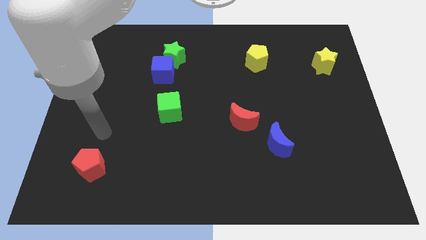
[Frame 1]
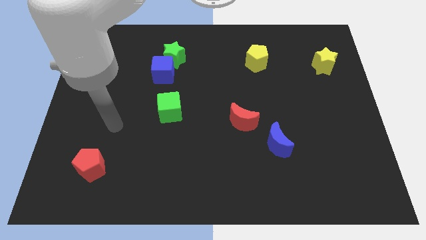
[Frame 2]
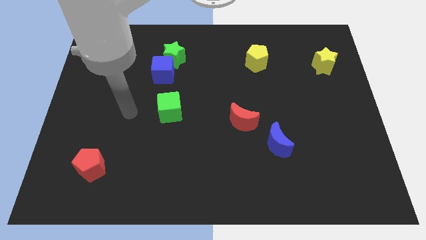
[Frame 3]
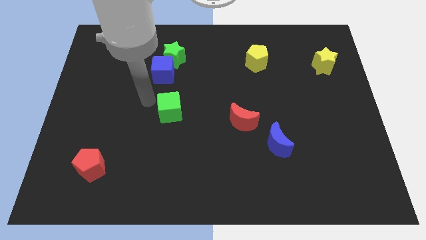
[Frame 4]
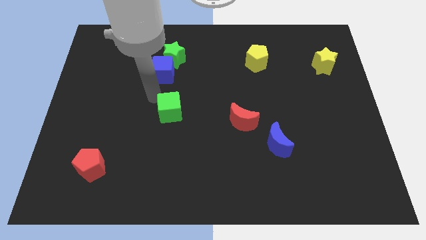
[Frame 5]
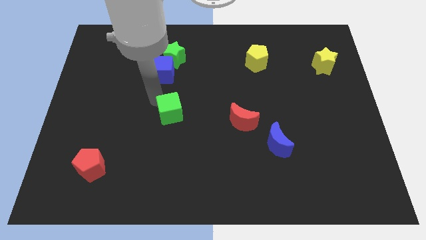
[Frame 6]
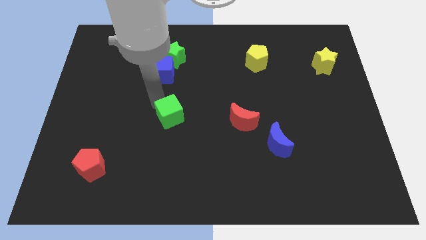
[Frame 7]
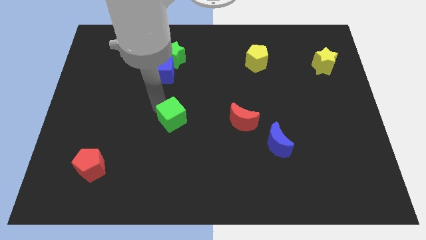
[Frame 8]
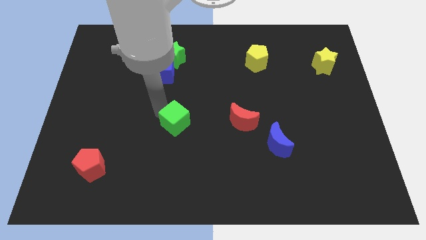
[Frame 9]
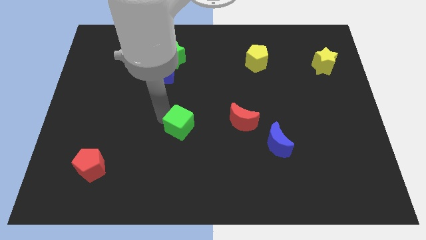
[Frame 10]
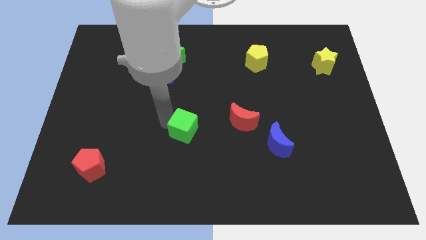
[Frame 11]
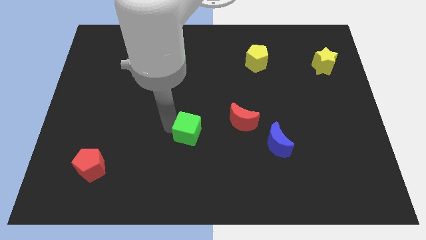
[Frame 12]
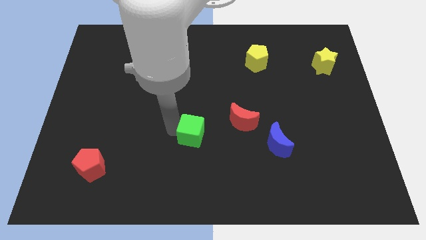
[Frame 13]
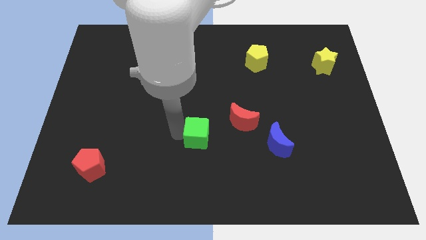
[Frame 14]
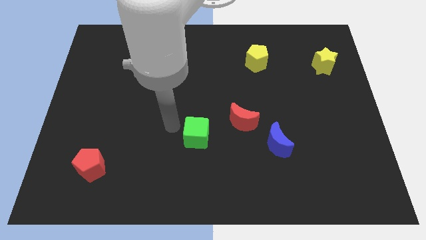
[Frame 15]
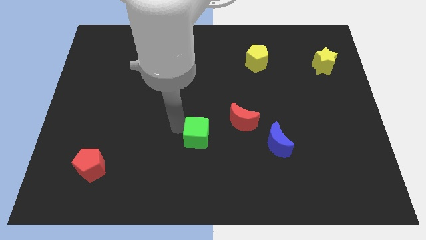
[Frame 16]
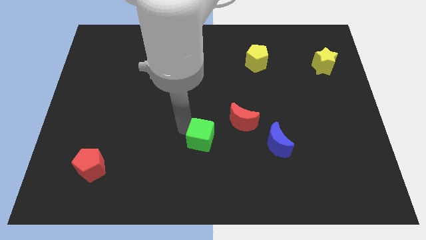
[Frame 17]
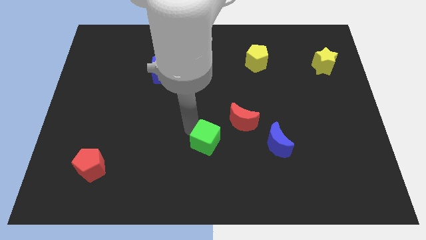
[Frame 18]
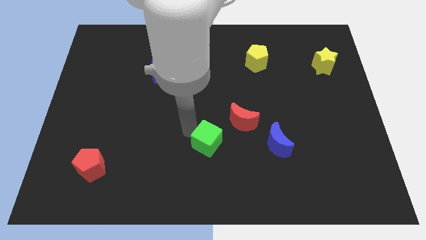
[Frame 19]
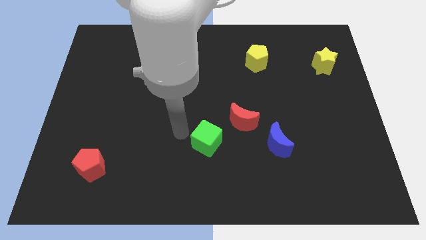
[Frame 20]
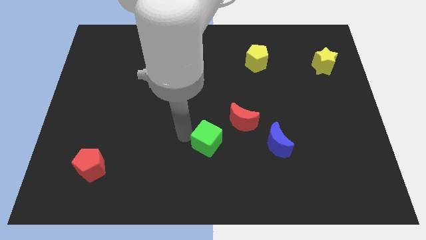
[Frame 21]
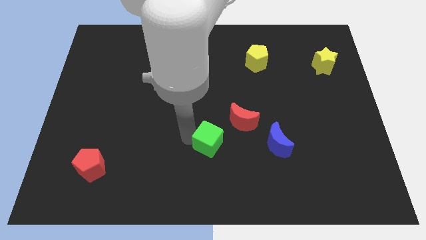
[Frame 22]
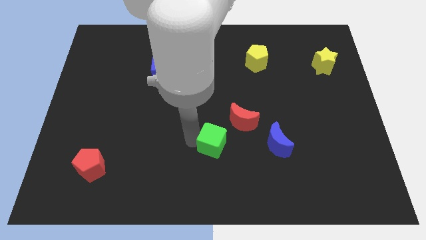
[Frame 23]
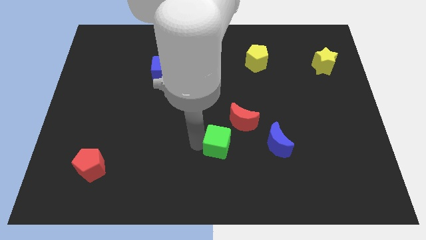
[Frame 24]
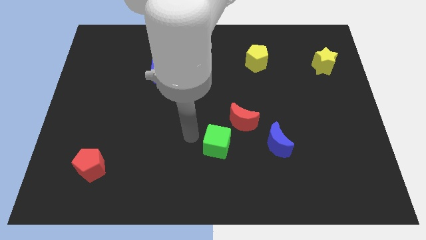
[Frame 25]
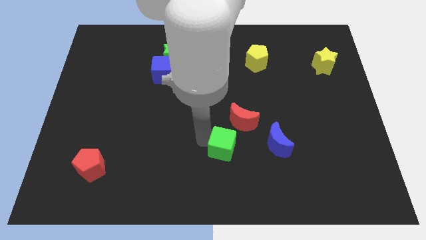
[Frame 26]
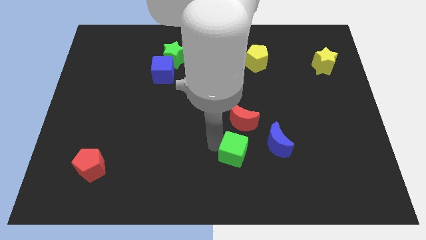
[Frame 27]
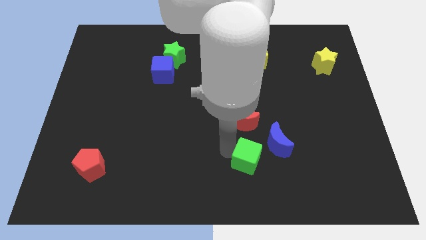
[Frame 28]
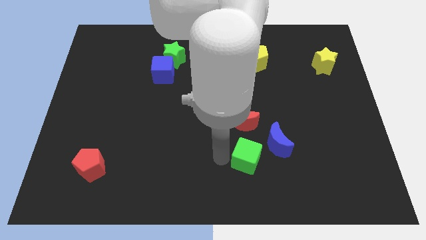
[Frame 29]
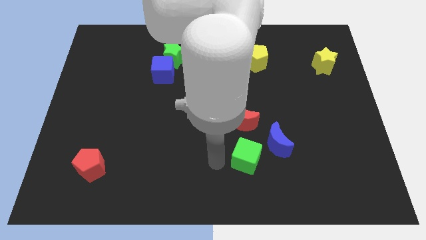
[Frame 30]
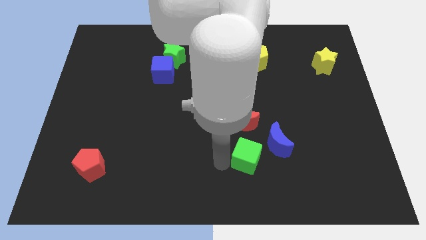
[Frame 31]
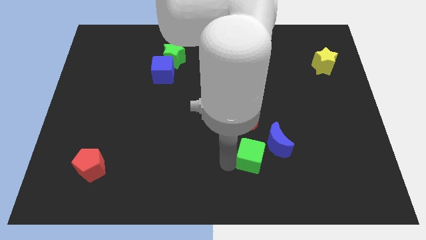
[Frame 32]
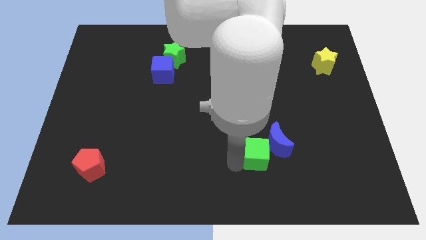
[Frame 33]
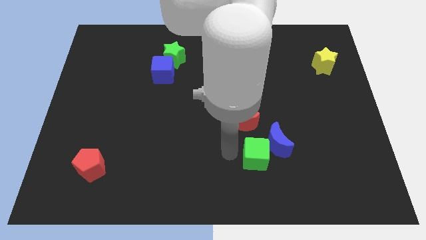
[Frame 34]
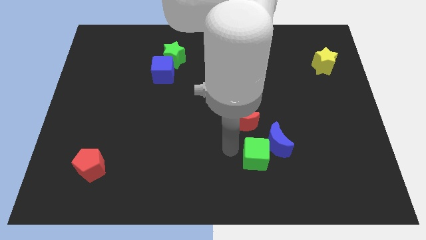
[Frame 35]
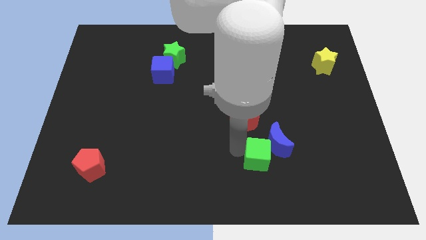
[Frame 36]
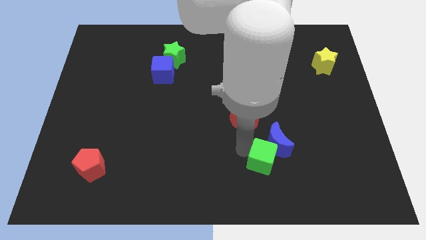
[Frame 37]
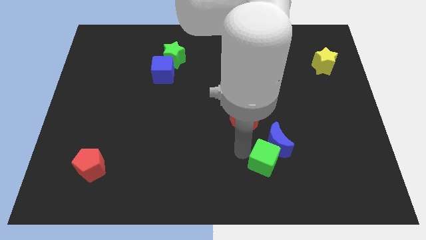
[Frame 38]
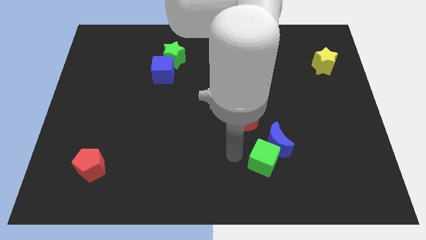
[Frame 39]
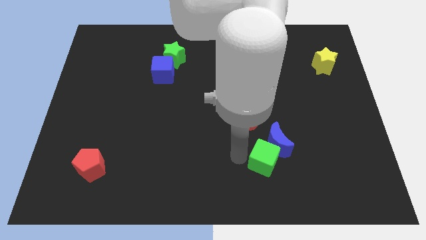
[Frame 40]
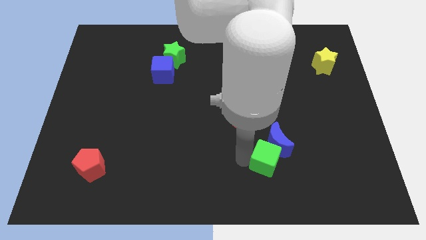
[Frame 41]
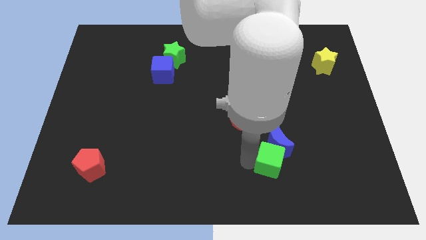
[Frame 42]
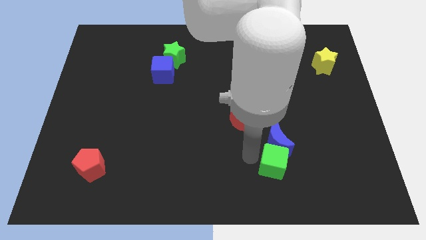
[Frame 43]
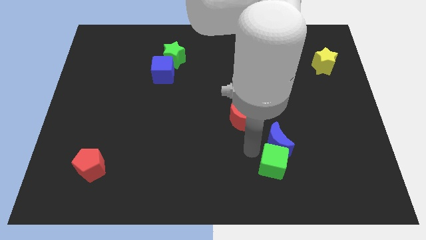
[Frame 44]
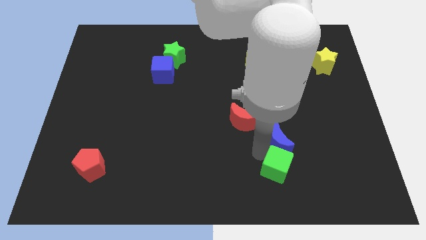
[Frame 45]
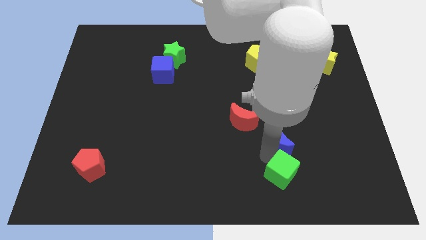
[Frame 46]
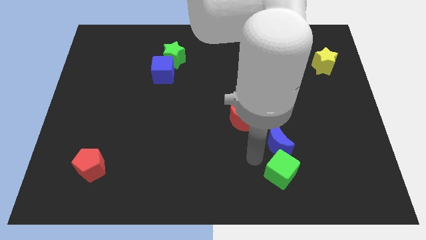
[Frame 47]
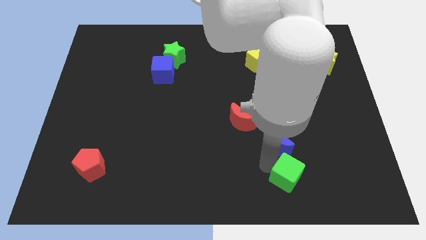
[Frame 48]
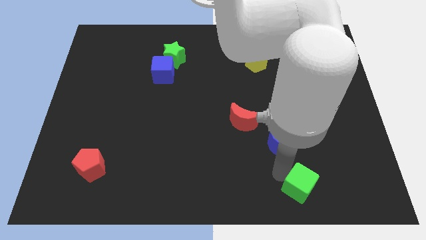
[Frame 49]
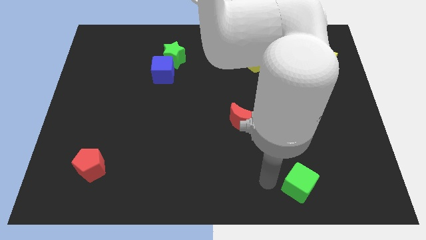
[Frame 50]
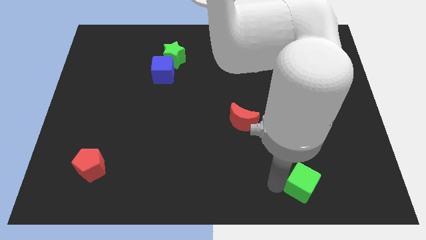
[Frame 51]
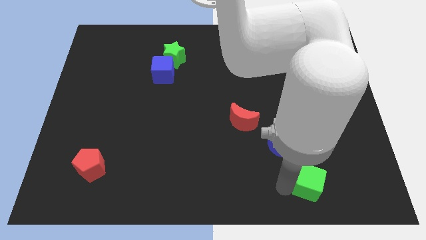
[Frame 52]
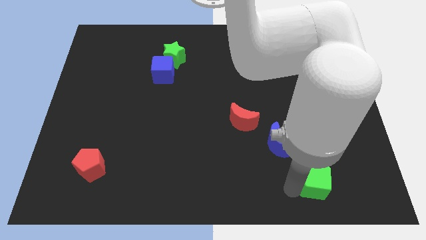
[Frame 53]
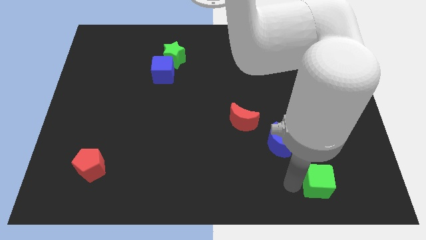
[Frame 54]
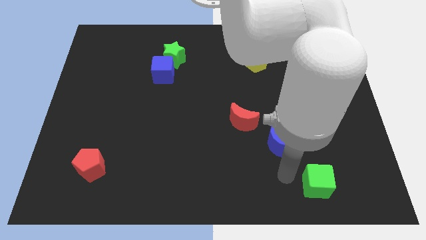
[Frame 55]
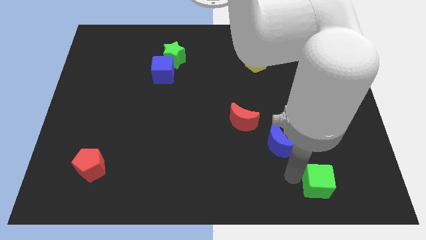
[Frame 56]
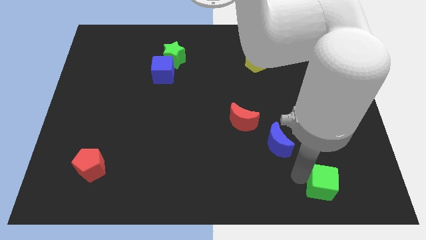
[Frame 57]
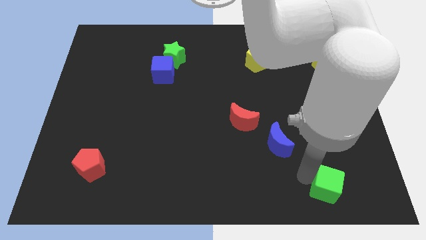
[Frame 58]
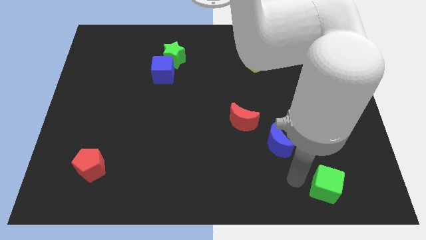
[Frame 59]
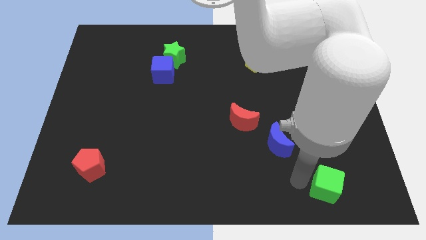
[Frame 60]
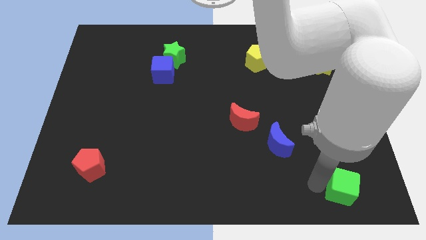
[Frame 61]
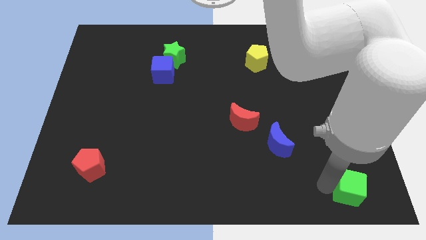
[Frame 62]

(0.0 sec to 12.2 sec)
move the green cube to the lower right corner

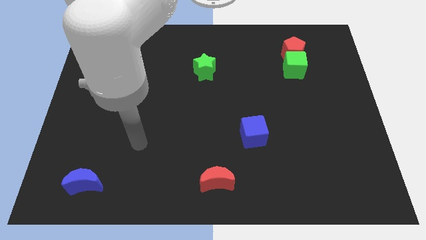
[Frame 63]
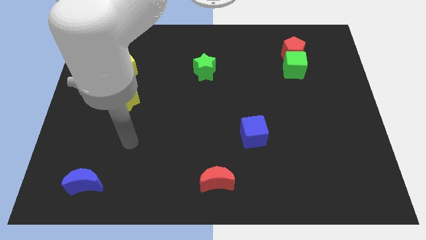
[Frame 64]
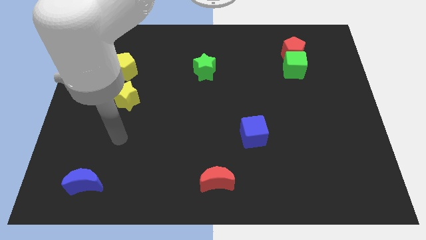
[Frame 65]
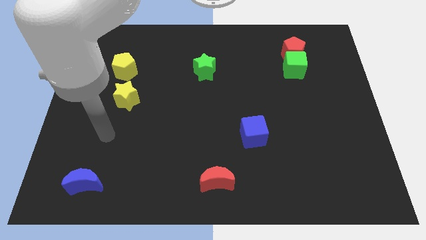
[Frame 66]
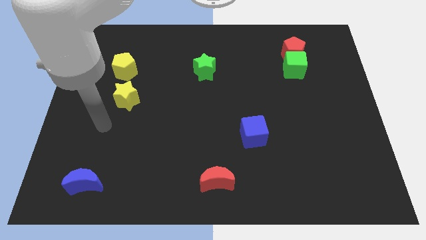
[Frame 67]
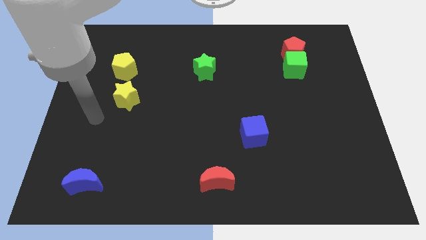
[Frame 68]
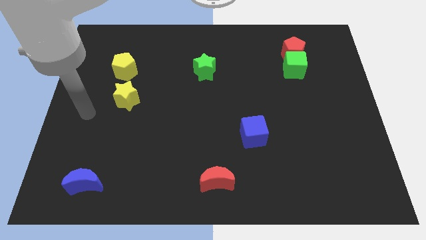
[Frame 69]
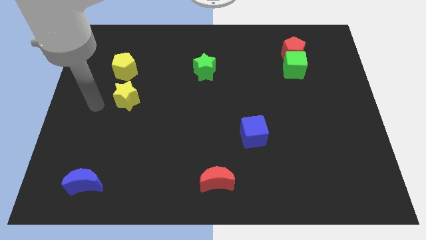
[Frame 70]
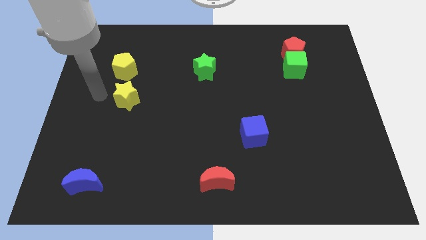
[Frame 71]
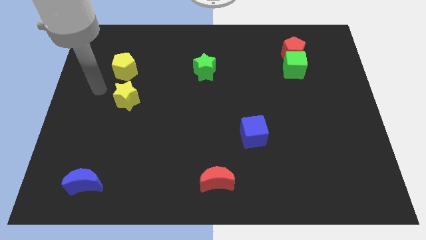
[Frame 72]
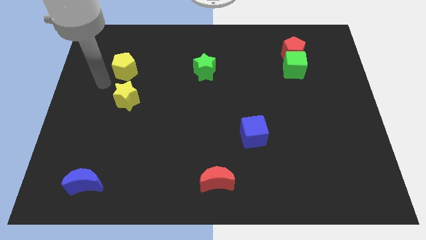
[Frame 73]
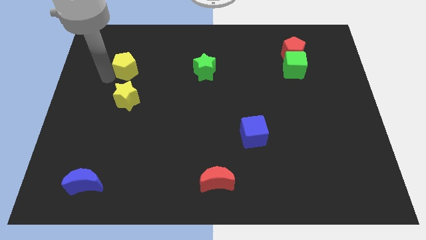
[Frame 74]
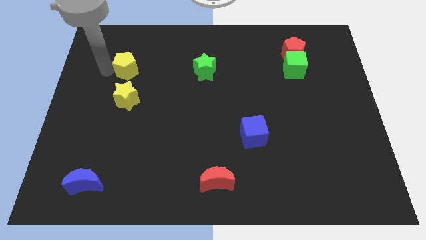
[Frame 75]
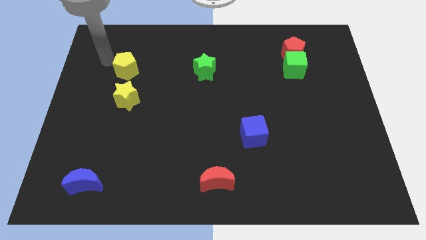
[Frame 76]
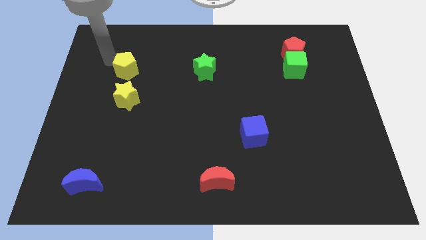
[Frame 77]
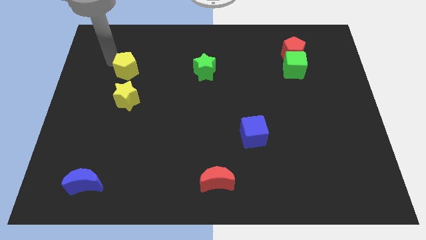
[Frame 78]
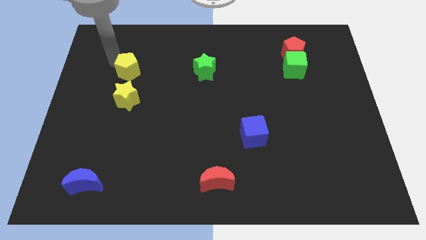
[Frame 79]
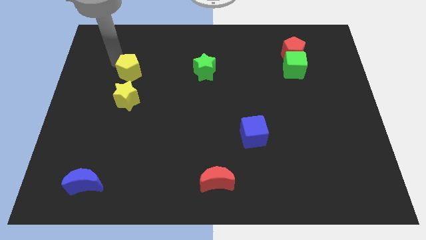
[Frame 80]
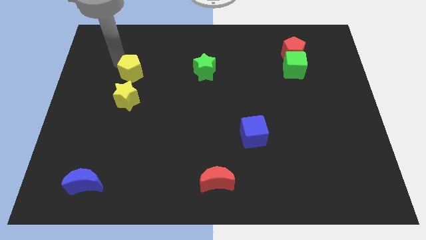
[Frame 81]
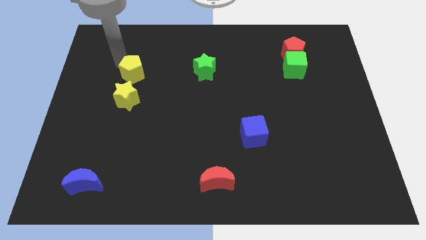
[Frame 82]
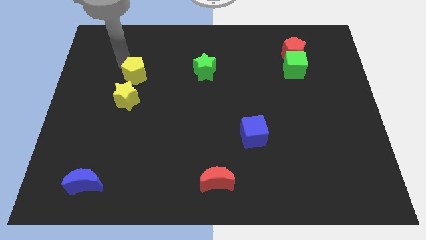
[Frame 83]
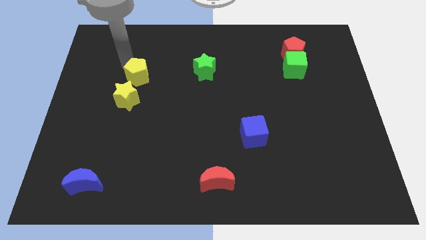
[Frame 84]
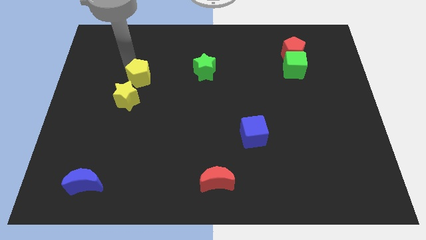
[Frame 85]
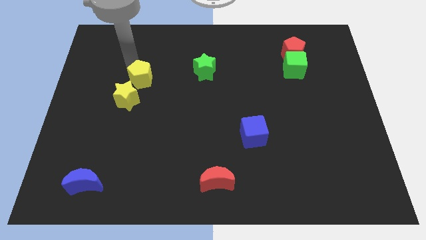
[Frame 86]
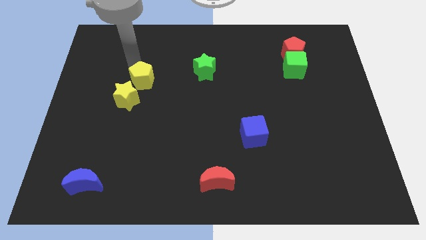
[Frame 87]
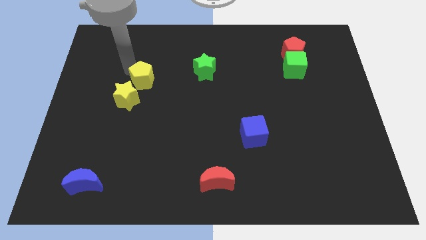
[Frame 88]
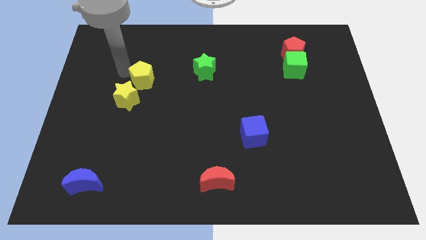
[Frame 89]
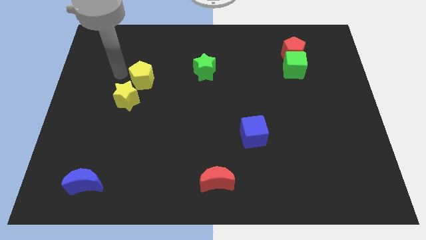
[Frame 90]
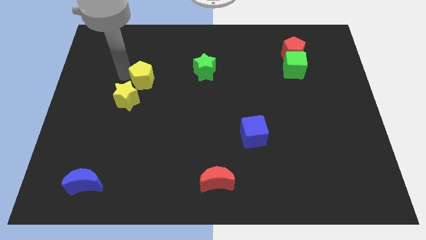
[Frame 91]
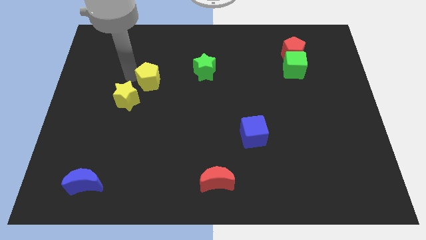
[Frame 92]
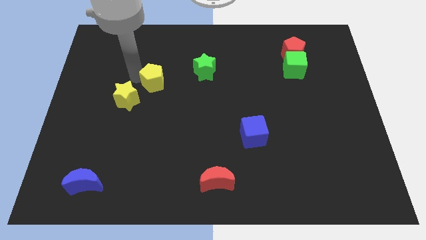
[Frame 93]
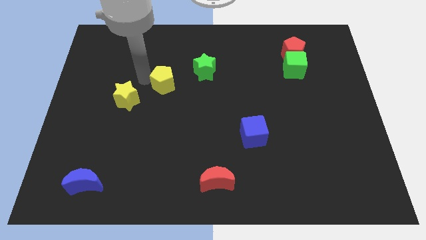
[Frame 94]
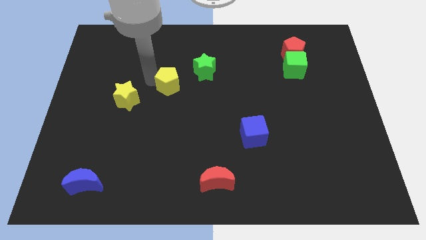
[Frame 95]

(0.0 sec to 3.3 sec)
move the yellow pentagon to the middle of the board
